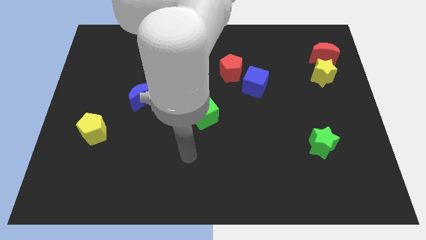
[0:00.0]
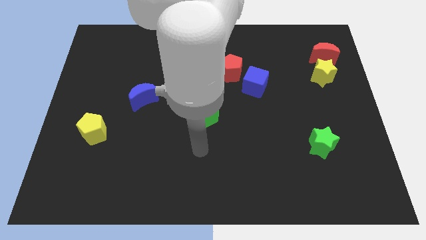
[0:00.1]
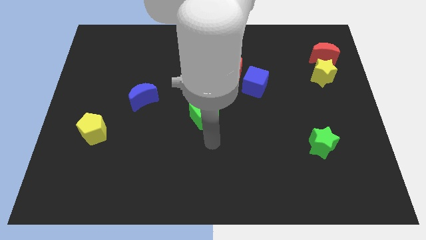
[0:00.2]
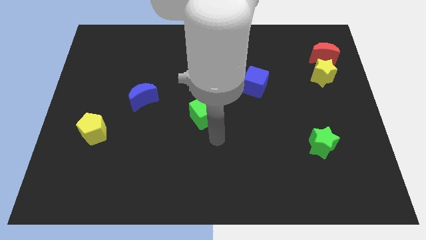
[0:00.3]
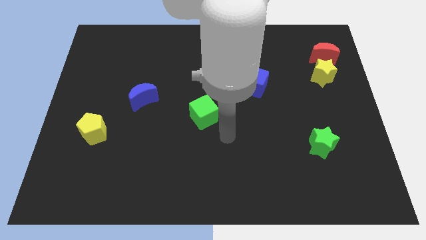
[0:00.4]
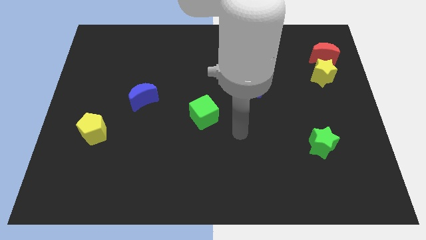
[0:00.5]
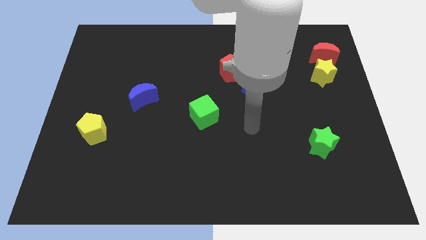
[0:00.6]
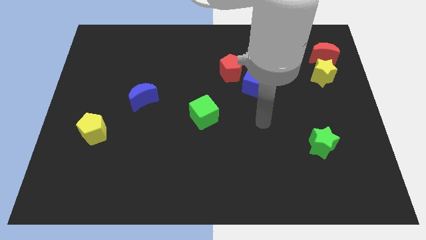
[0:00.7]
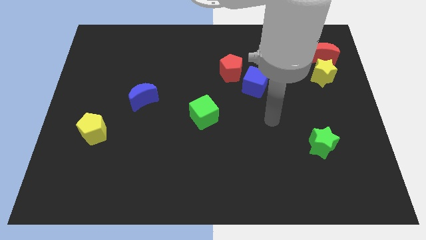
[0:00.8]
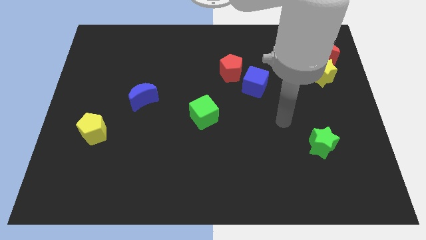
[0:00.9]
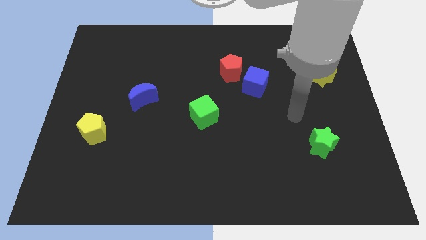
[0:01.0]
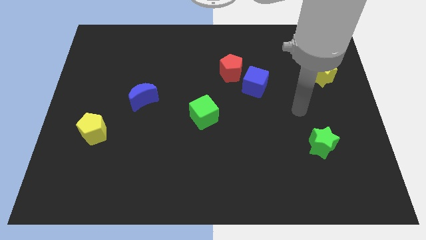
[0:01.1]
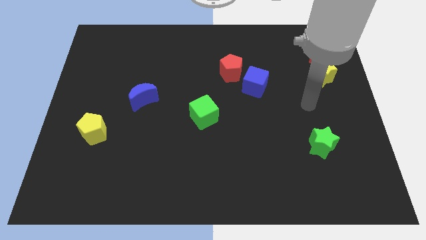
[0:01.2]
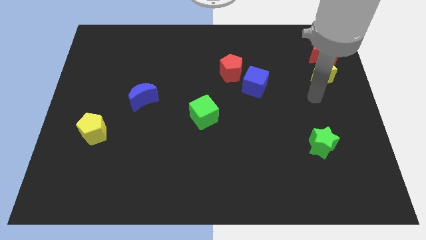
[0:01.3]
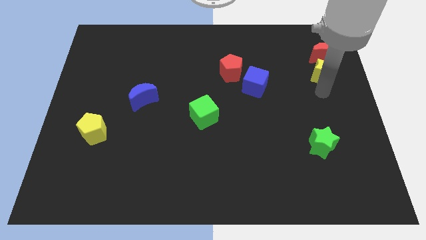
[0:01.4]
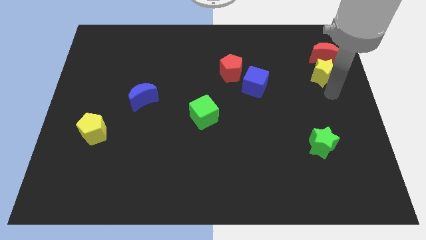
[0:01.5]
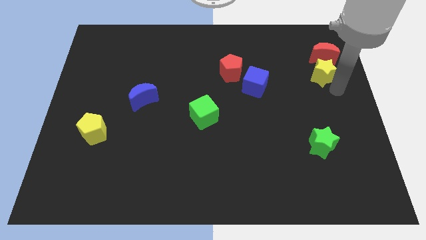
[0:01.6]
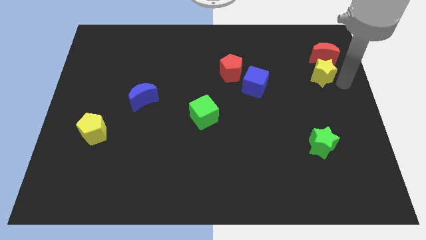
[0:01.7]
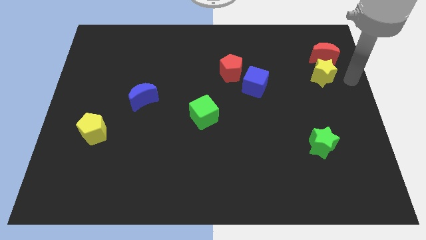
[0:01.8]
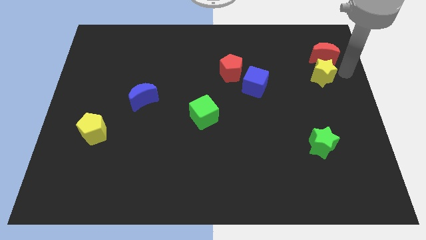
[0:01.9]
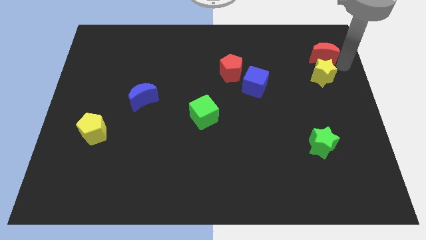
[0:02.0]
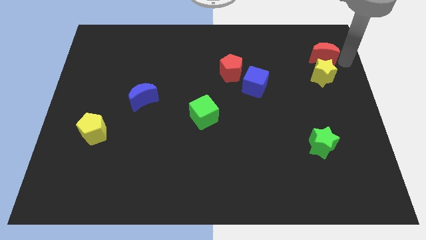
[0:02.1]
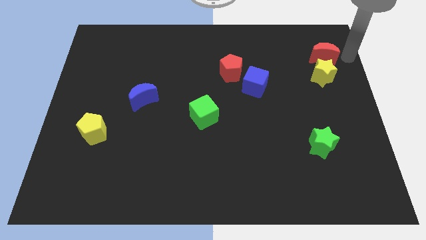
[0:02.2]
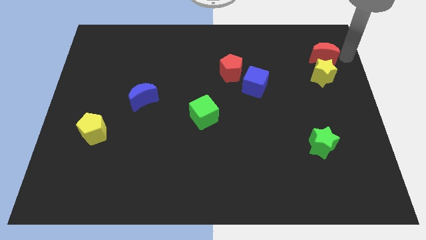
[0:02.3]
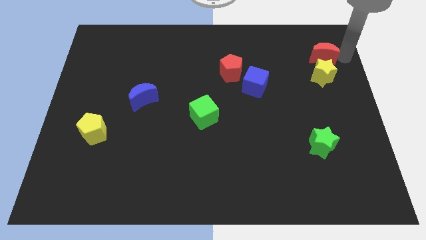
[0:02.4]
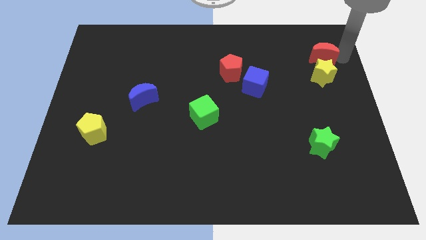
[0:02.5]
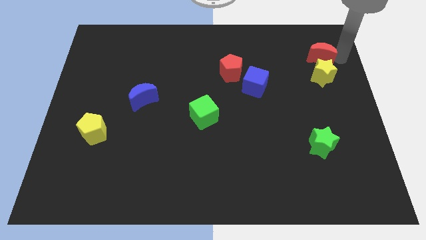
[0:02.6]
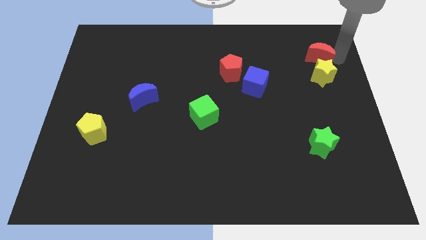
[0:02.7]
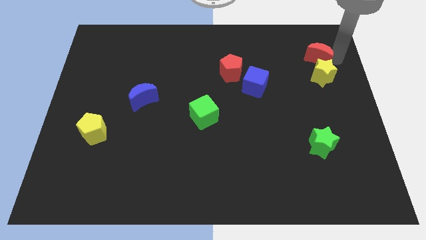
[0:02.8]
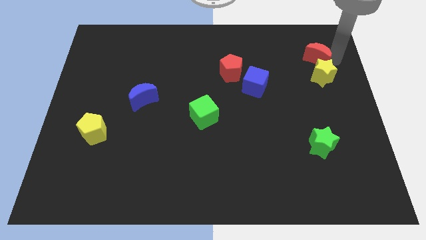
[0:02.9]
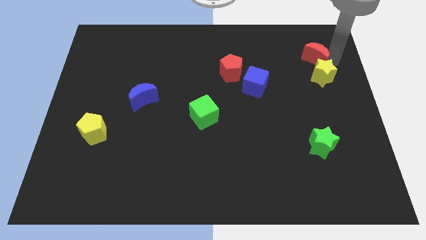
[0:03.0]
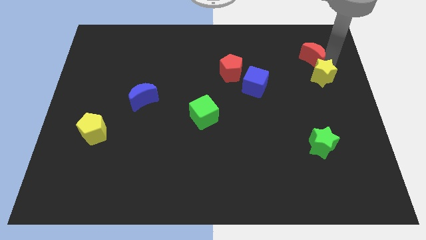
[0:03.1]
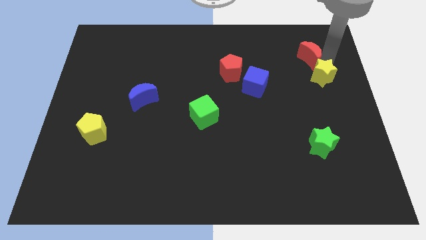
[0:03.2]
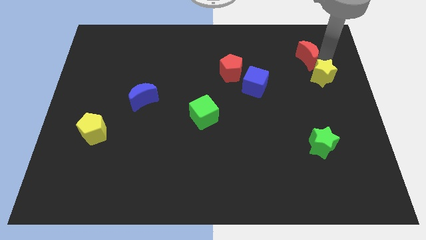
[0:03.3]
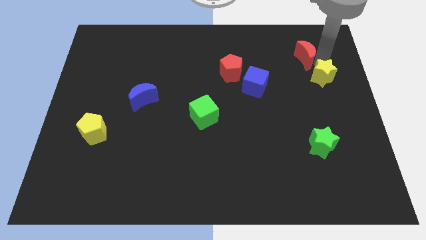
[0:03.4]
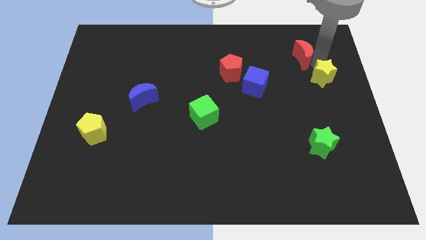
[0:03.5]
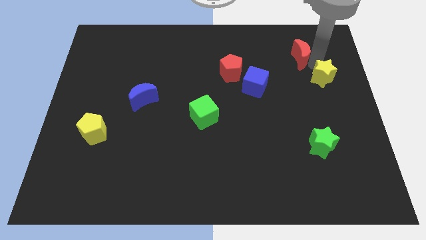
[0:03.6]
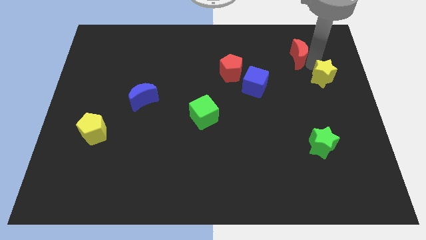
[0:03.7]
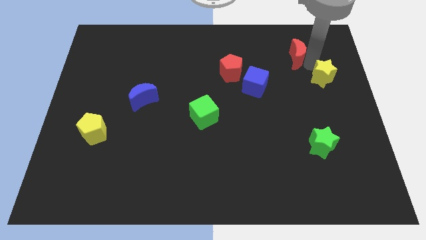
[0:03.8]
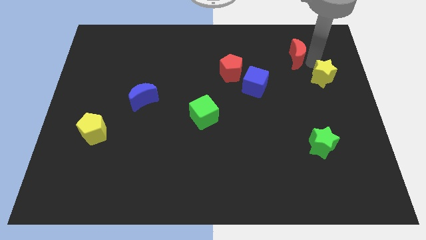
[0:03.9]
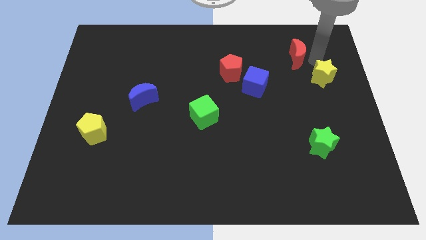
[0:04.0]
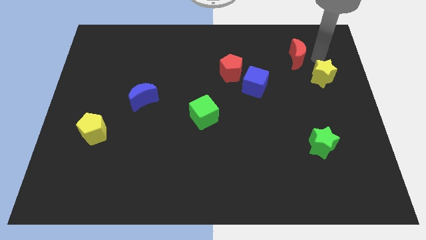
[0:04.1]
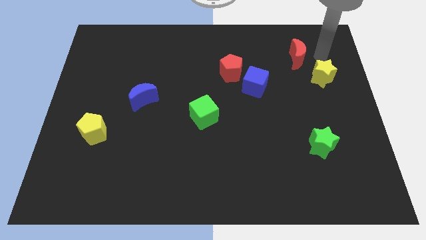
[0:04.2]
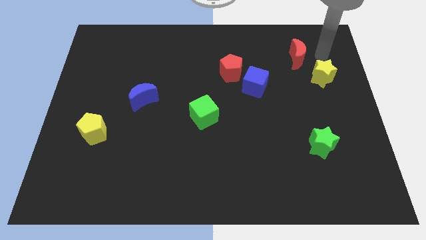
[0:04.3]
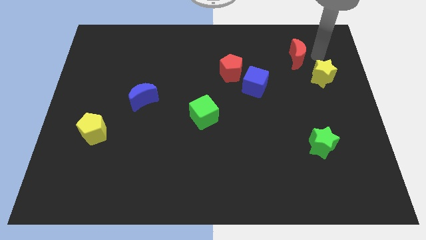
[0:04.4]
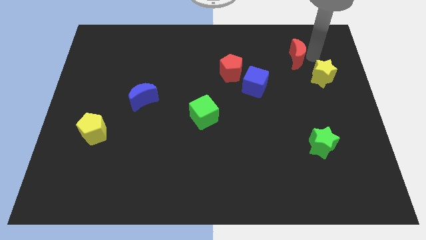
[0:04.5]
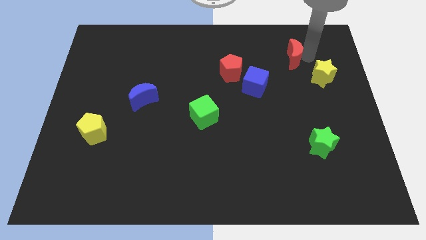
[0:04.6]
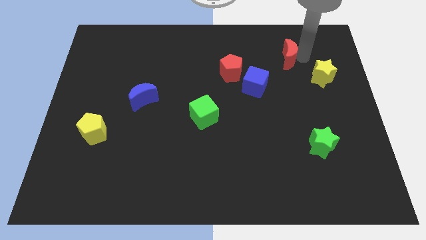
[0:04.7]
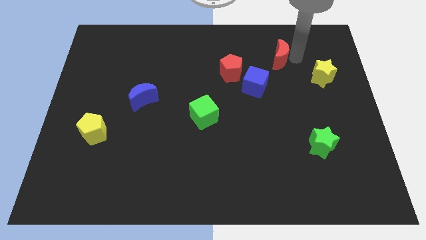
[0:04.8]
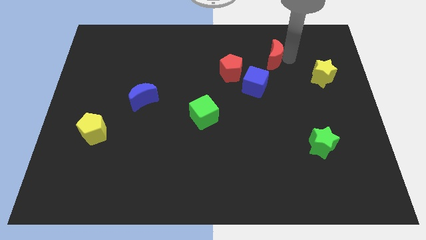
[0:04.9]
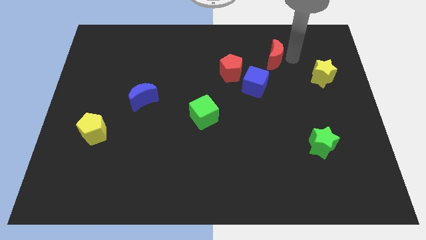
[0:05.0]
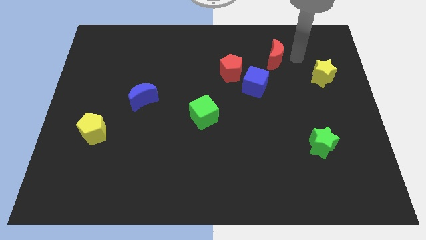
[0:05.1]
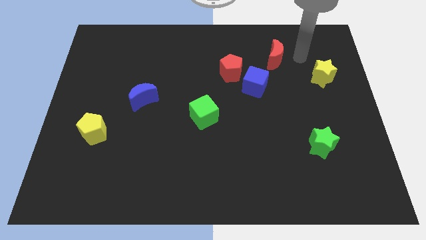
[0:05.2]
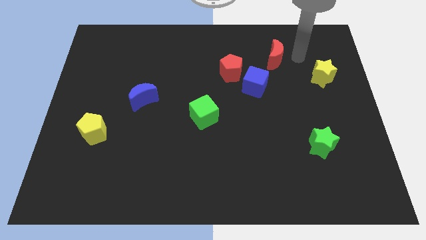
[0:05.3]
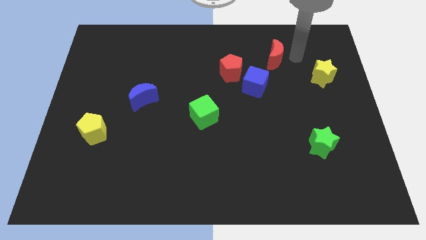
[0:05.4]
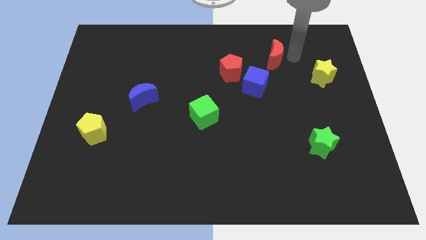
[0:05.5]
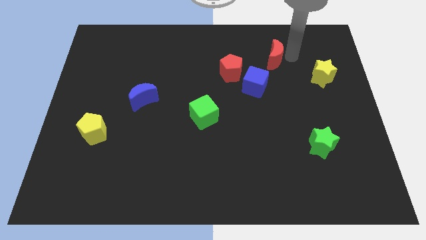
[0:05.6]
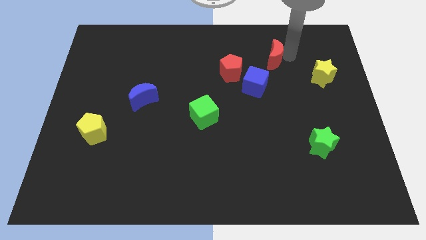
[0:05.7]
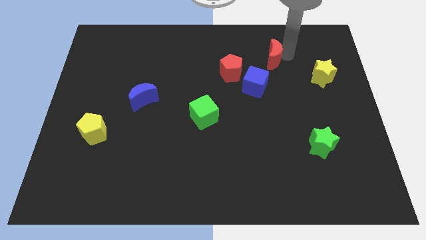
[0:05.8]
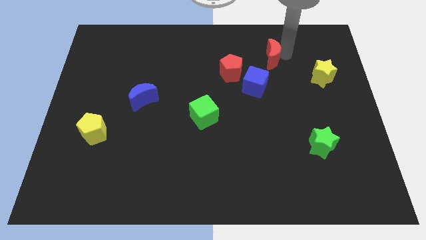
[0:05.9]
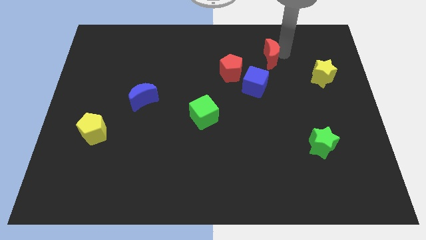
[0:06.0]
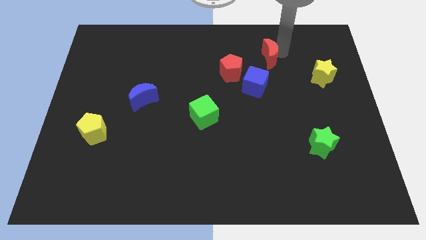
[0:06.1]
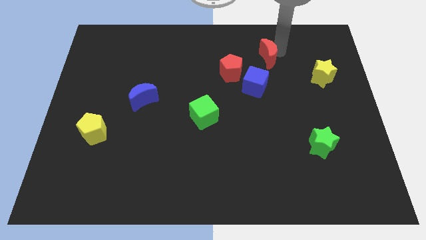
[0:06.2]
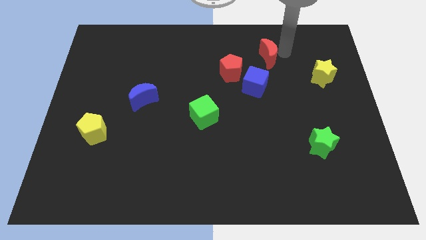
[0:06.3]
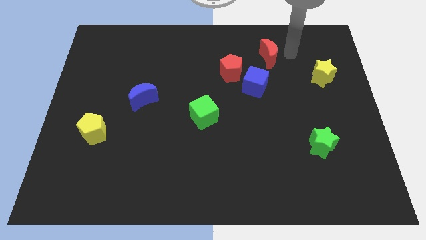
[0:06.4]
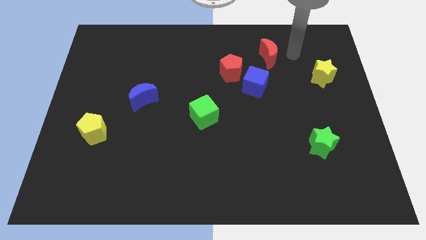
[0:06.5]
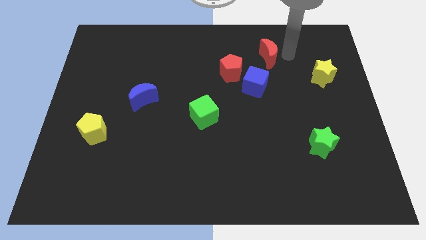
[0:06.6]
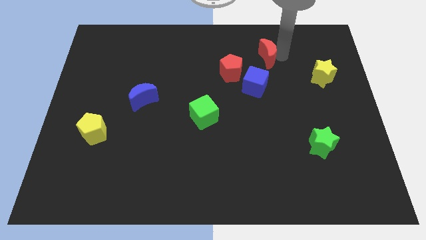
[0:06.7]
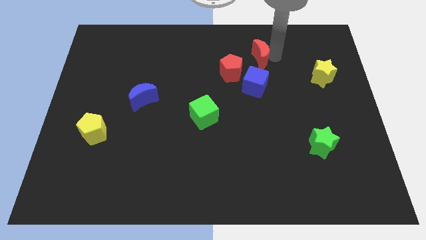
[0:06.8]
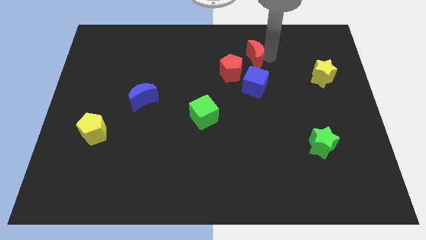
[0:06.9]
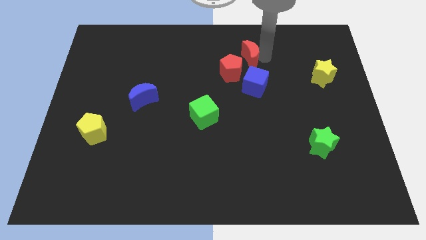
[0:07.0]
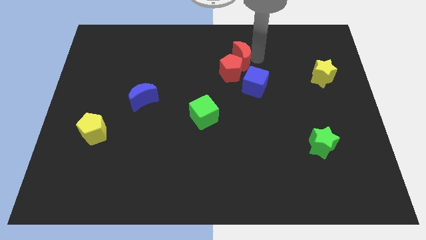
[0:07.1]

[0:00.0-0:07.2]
push the red moon left

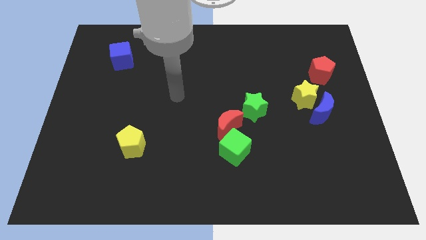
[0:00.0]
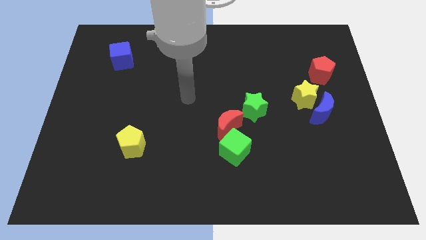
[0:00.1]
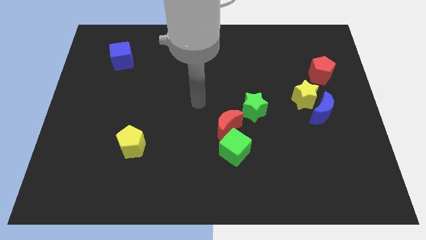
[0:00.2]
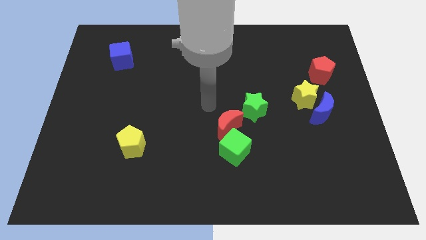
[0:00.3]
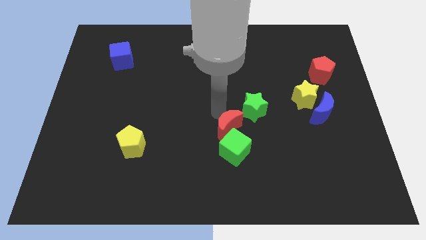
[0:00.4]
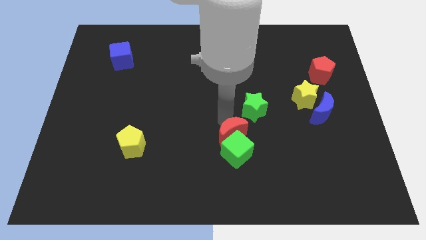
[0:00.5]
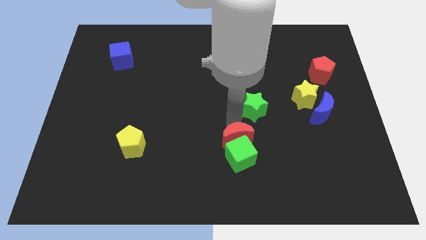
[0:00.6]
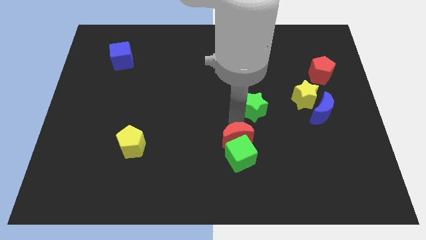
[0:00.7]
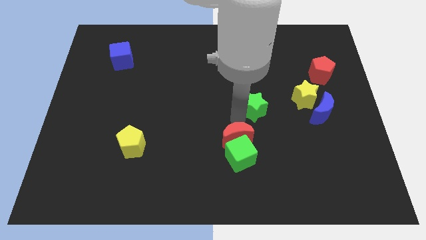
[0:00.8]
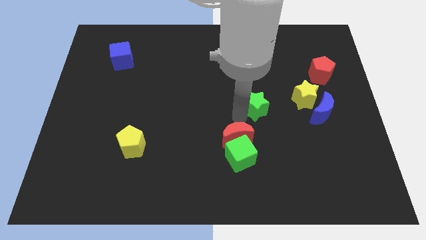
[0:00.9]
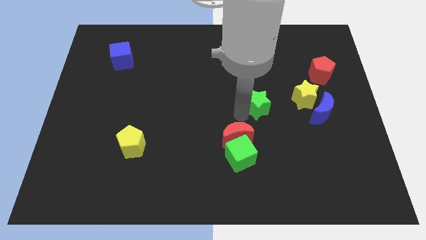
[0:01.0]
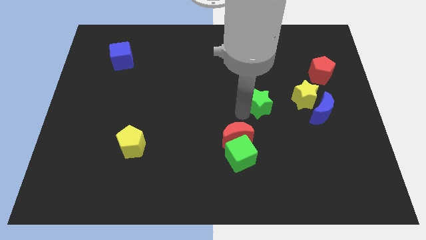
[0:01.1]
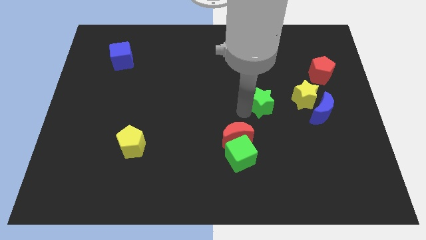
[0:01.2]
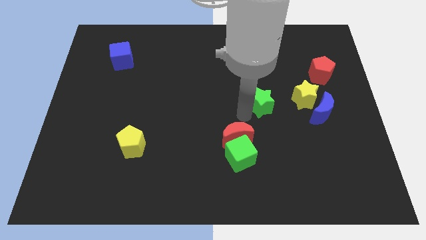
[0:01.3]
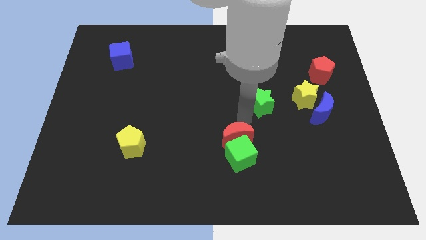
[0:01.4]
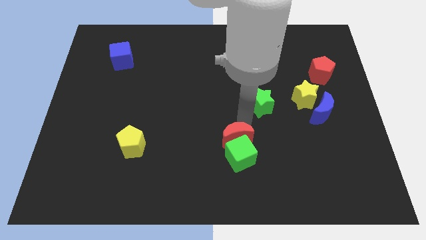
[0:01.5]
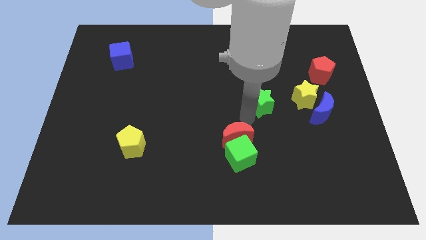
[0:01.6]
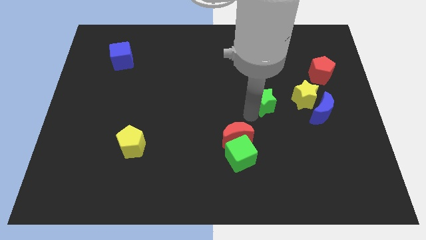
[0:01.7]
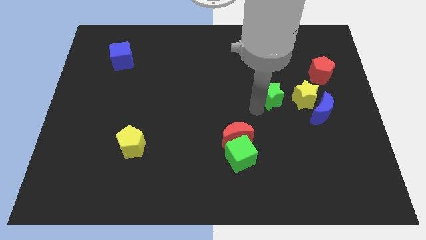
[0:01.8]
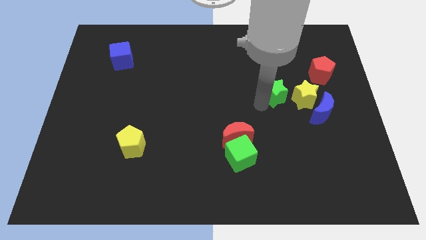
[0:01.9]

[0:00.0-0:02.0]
slide the green star upwards and right slightly
